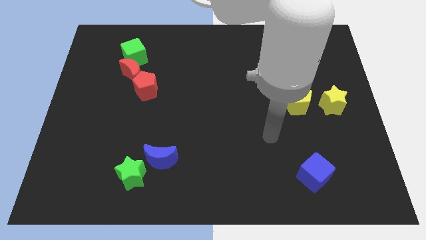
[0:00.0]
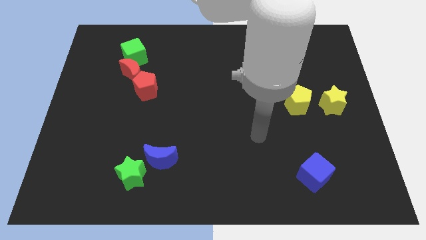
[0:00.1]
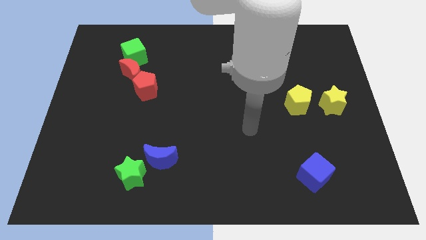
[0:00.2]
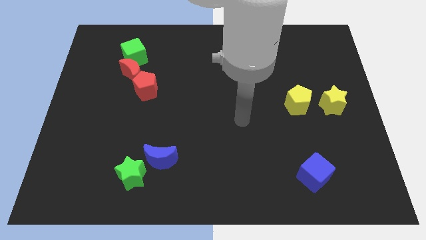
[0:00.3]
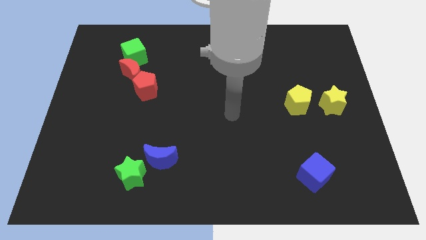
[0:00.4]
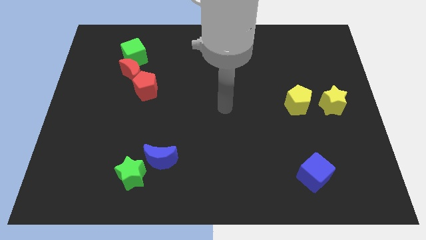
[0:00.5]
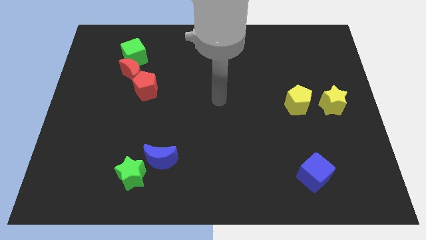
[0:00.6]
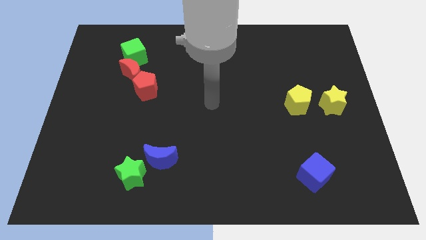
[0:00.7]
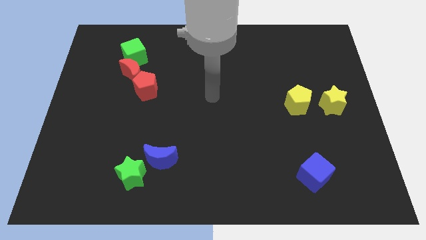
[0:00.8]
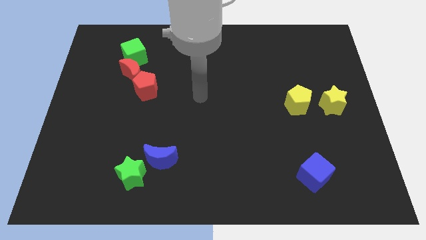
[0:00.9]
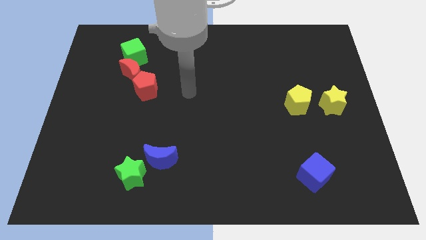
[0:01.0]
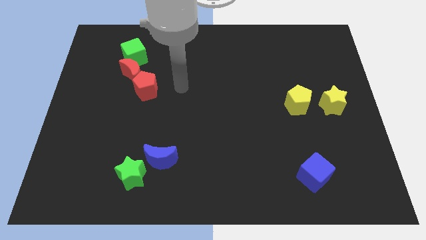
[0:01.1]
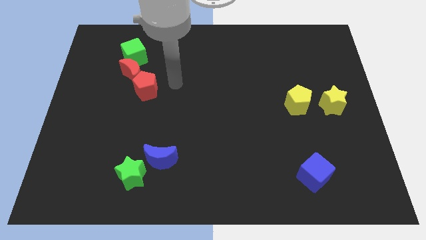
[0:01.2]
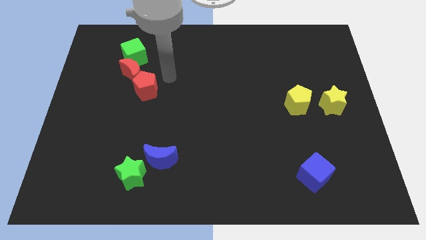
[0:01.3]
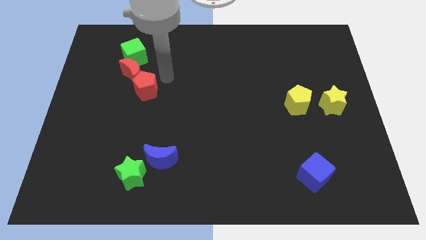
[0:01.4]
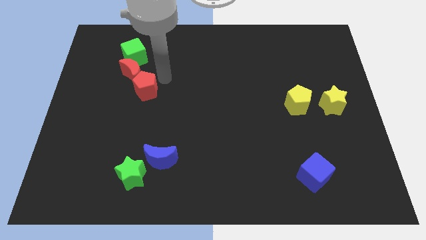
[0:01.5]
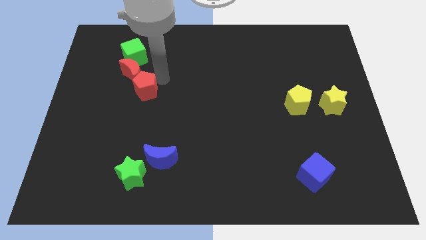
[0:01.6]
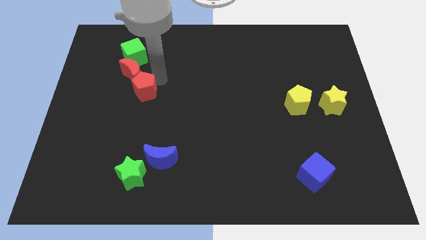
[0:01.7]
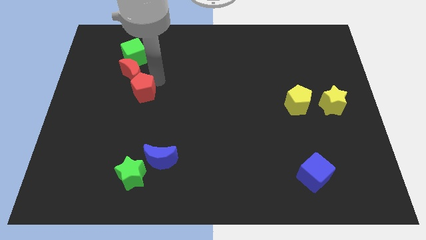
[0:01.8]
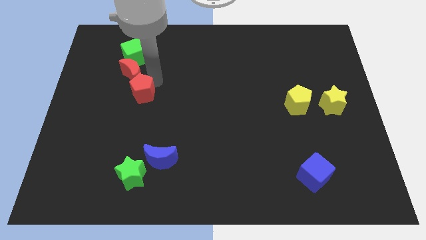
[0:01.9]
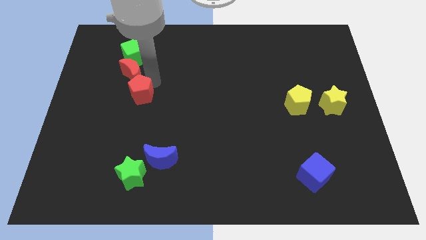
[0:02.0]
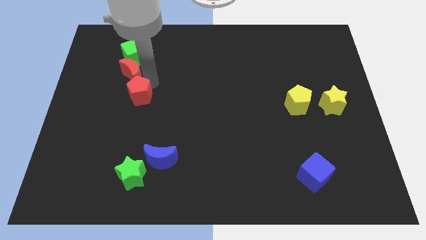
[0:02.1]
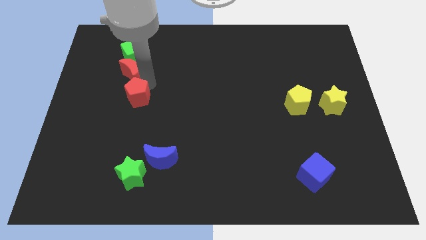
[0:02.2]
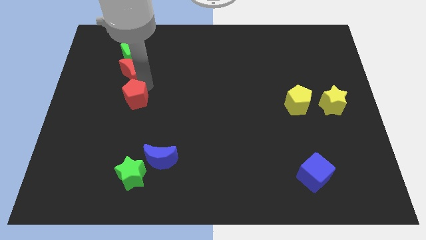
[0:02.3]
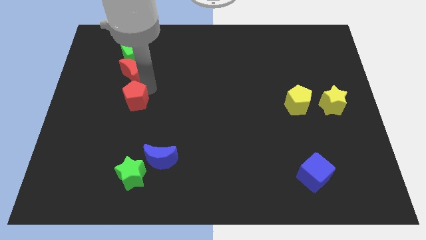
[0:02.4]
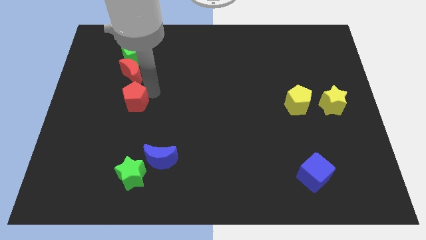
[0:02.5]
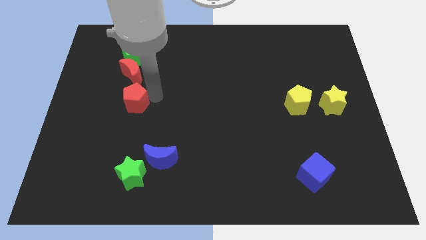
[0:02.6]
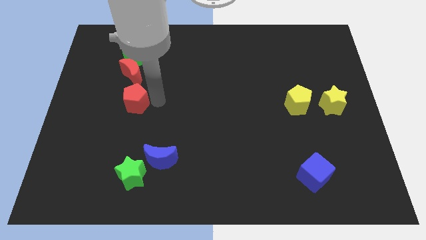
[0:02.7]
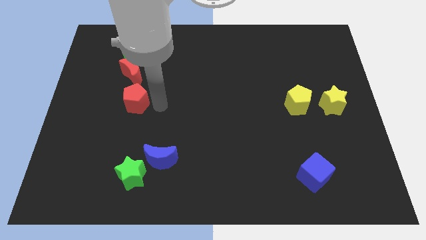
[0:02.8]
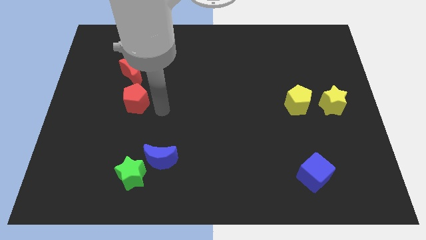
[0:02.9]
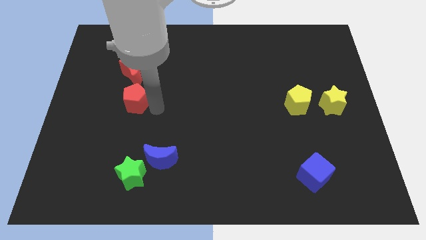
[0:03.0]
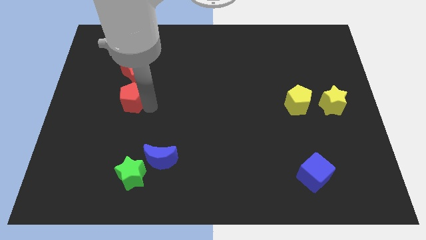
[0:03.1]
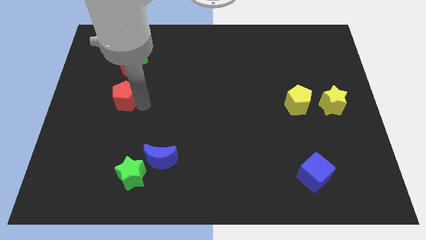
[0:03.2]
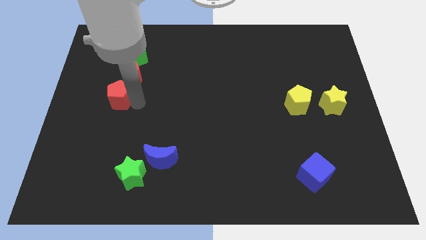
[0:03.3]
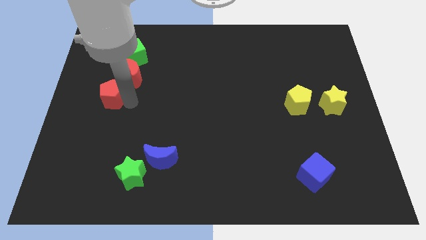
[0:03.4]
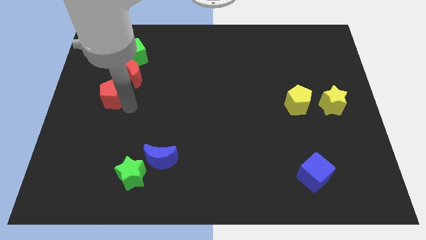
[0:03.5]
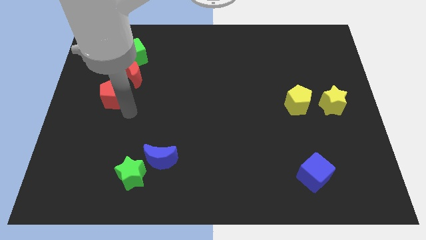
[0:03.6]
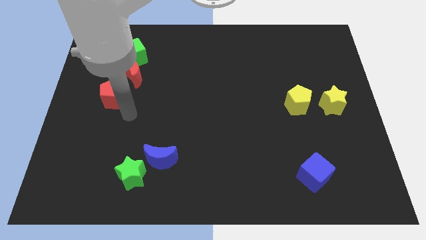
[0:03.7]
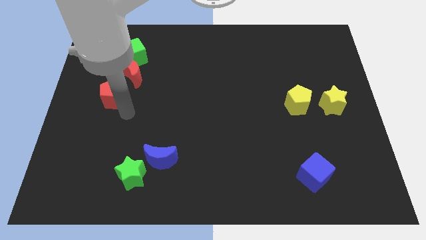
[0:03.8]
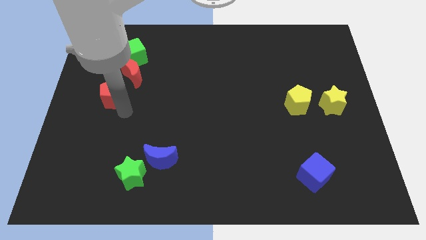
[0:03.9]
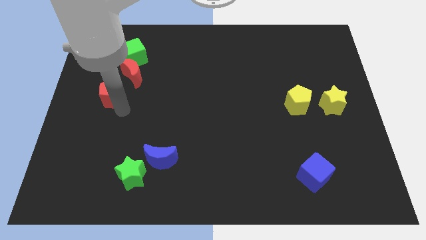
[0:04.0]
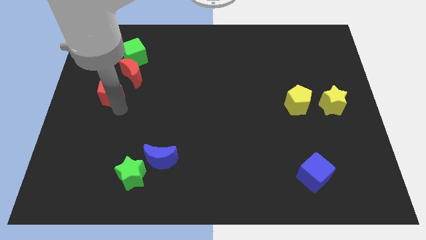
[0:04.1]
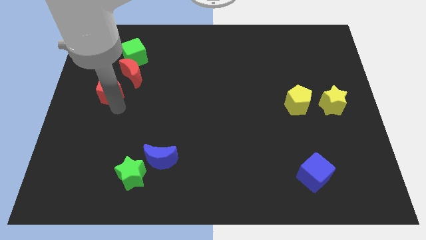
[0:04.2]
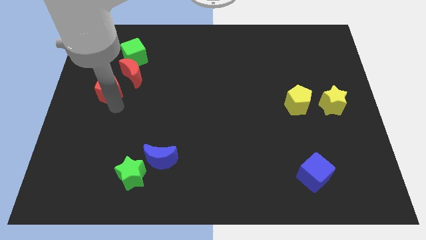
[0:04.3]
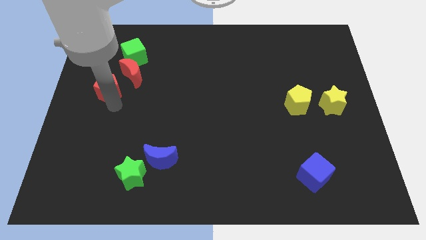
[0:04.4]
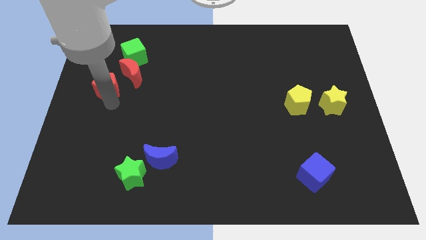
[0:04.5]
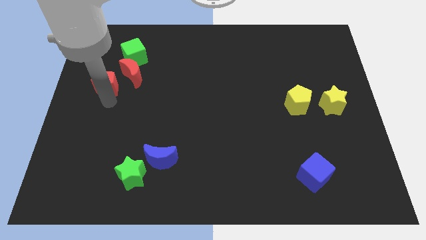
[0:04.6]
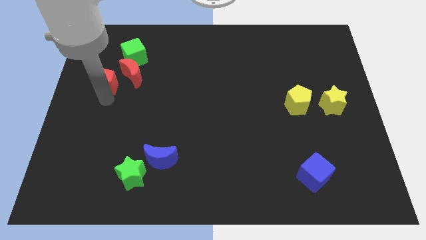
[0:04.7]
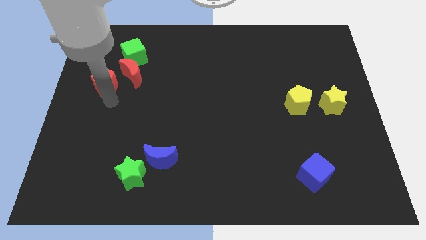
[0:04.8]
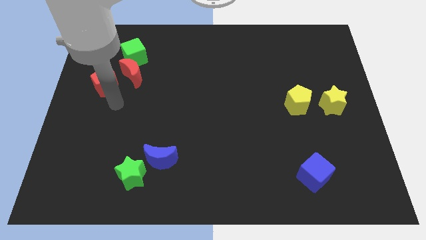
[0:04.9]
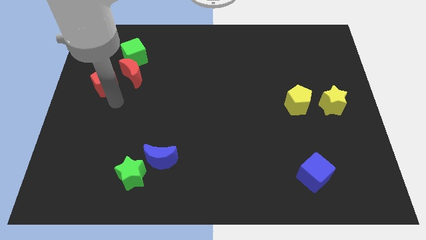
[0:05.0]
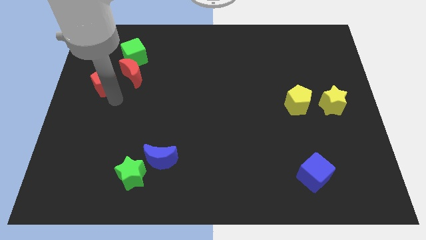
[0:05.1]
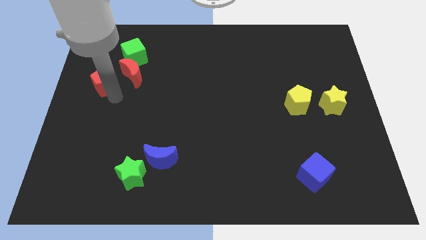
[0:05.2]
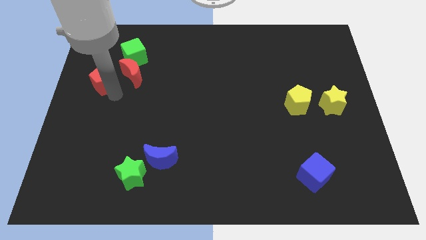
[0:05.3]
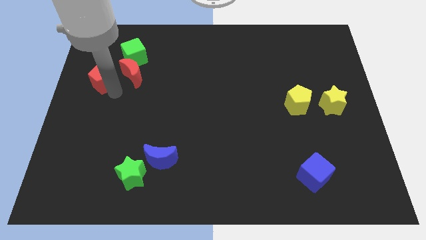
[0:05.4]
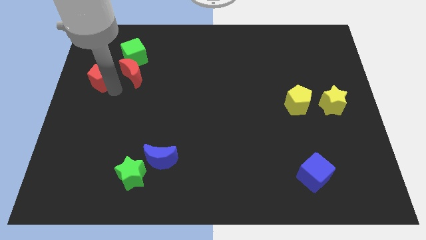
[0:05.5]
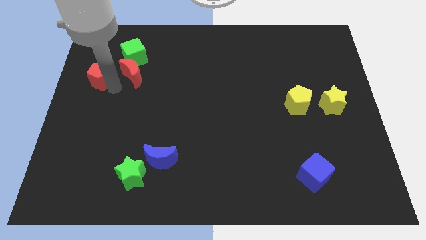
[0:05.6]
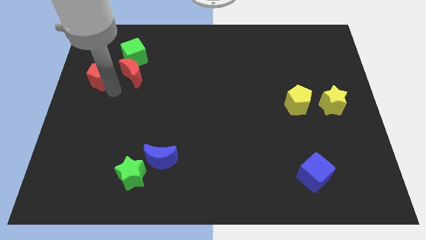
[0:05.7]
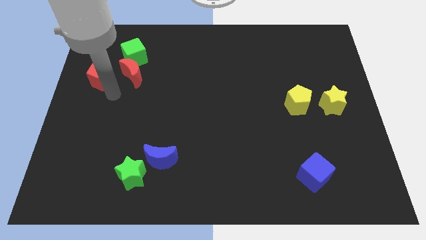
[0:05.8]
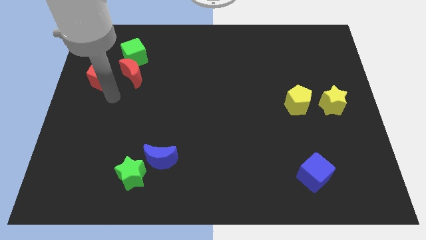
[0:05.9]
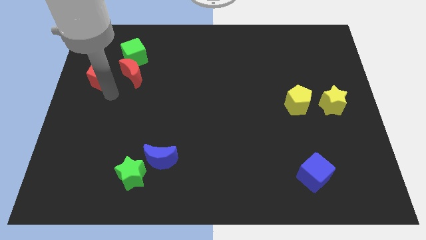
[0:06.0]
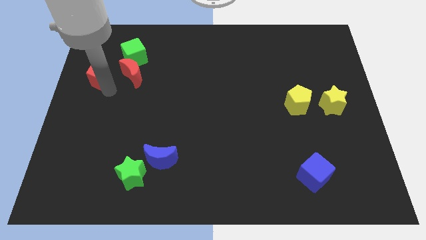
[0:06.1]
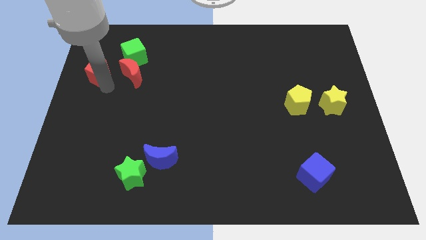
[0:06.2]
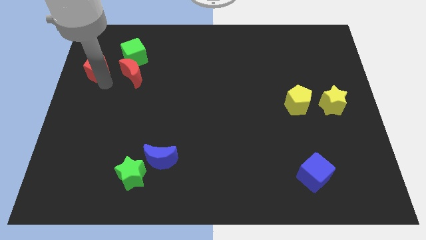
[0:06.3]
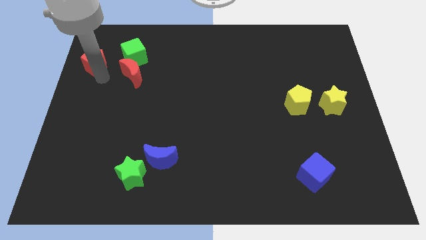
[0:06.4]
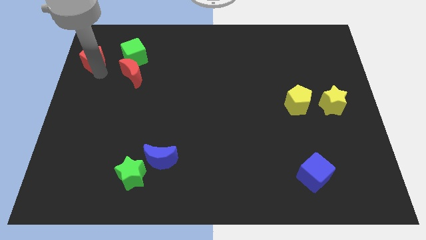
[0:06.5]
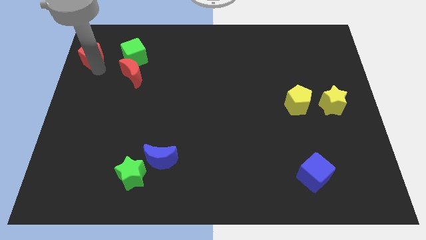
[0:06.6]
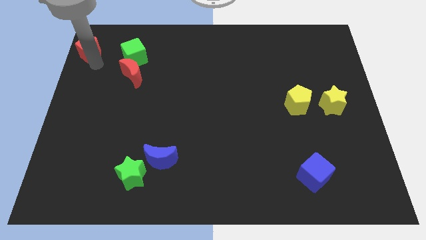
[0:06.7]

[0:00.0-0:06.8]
put the red pentagon to the top left of the board

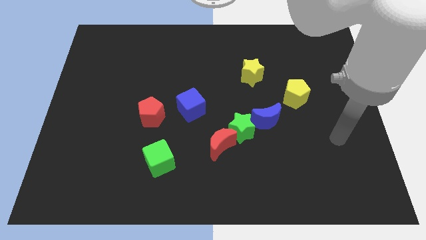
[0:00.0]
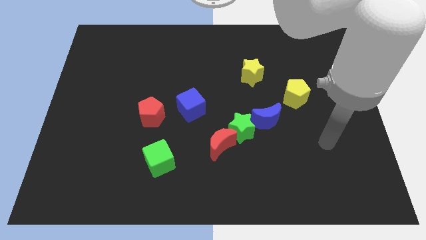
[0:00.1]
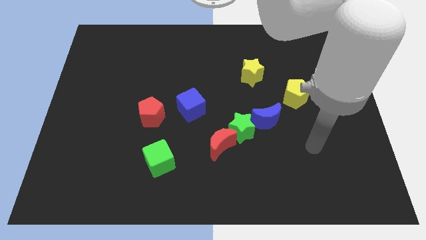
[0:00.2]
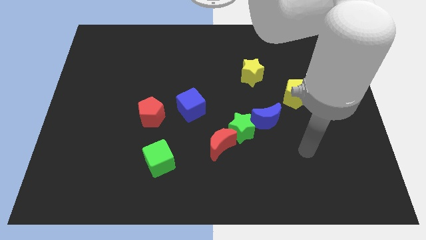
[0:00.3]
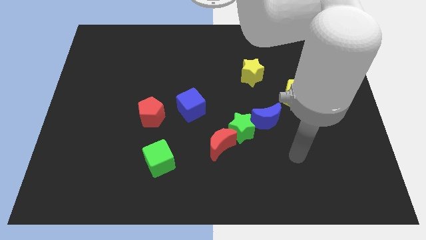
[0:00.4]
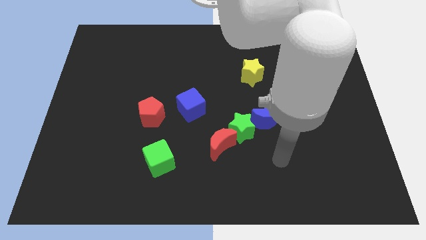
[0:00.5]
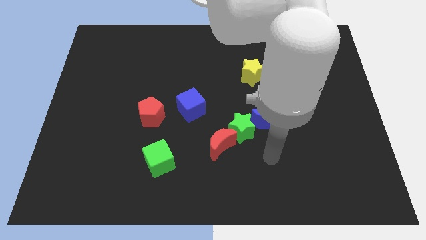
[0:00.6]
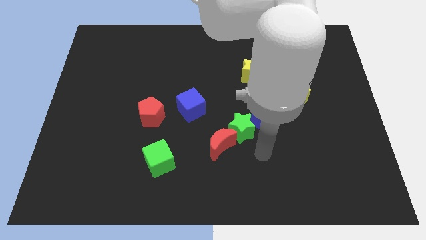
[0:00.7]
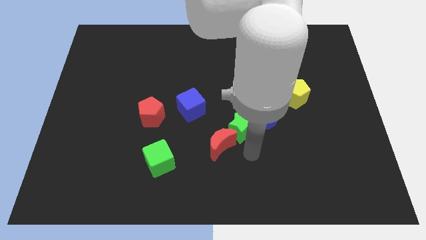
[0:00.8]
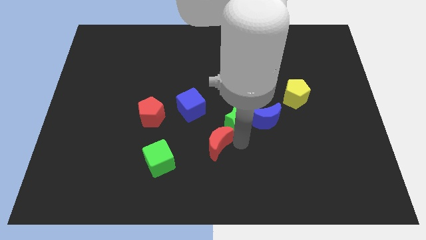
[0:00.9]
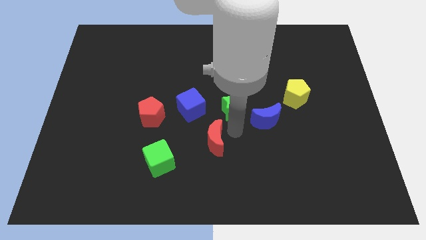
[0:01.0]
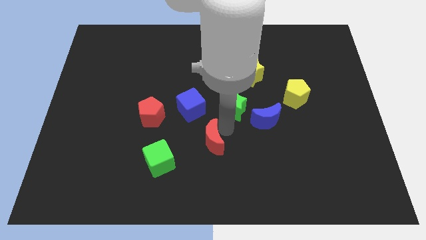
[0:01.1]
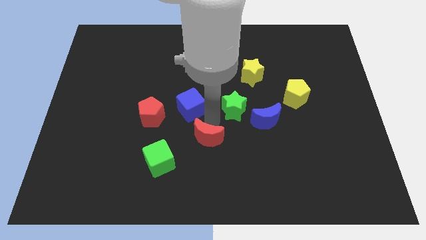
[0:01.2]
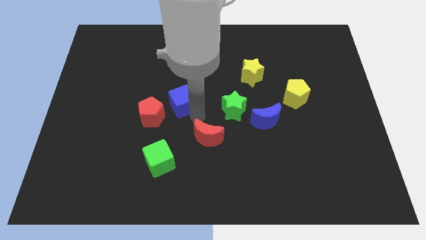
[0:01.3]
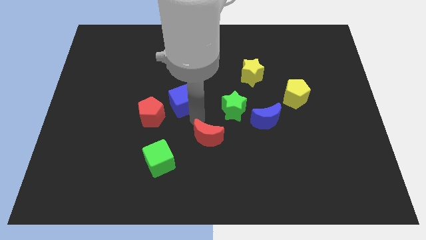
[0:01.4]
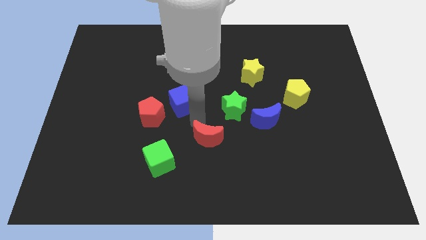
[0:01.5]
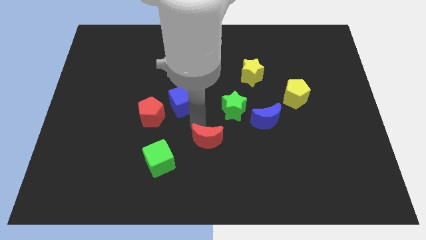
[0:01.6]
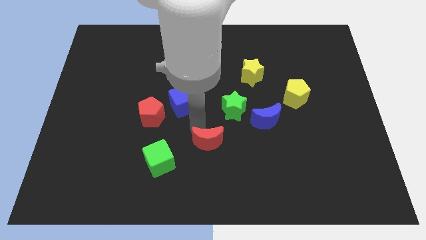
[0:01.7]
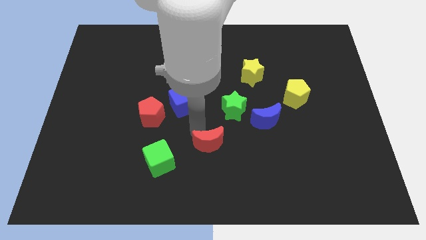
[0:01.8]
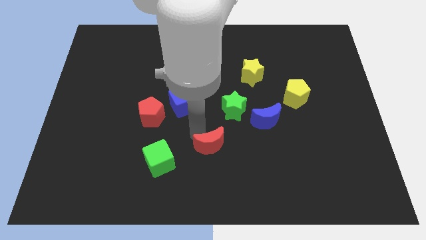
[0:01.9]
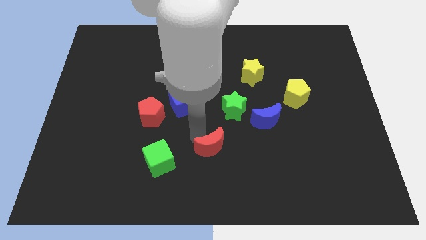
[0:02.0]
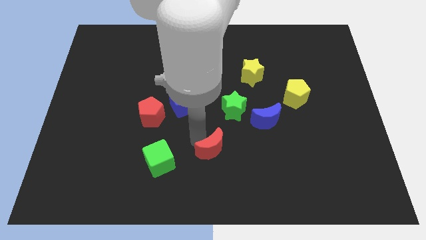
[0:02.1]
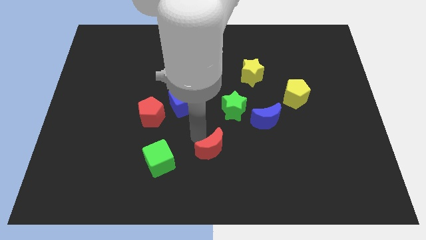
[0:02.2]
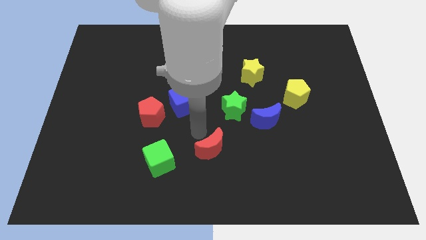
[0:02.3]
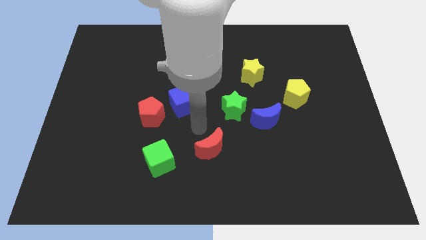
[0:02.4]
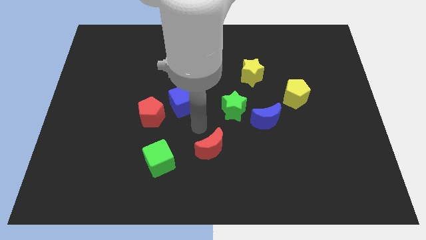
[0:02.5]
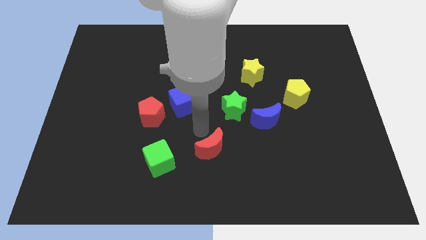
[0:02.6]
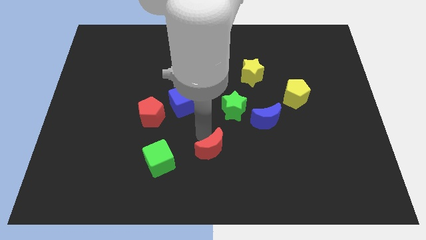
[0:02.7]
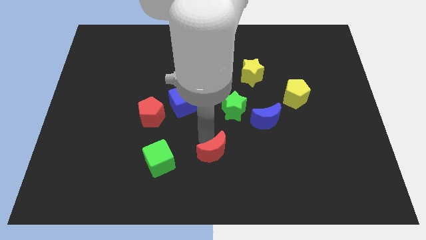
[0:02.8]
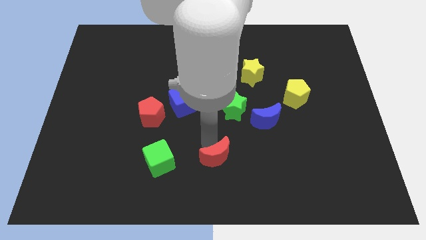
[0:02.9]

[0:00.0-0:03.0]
push the red moon to the bottom
